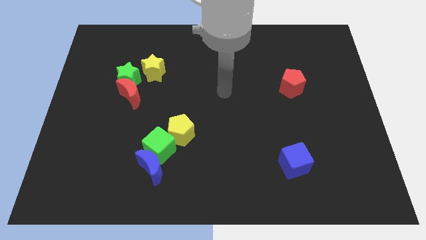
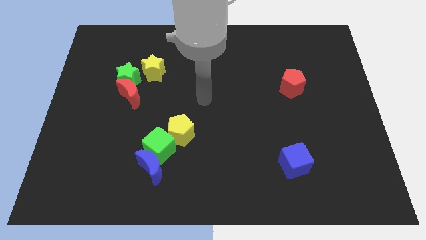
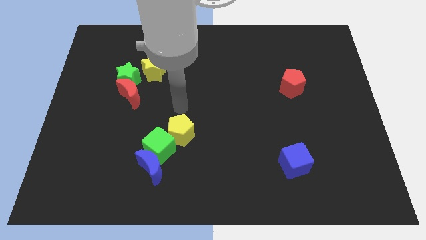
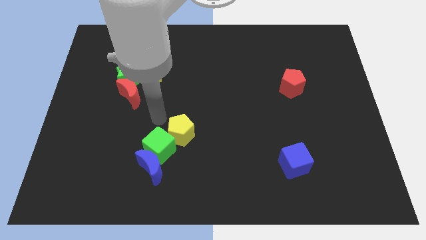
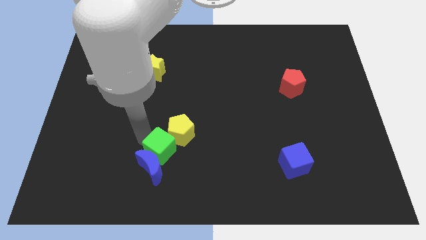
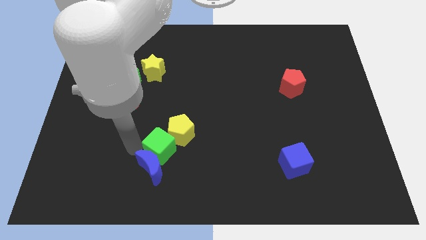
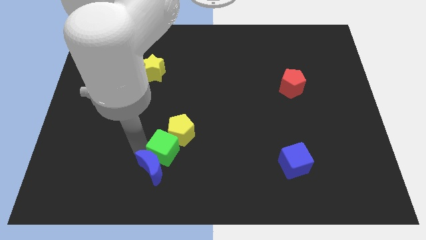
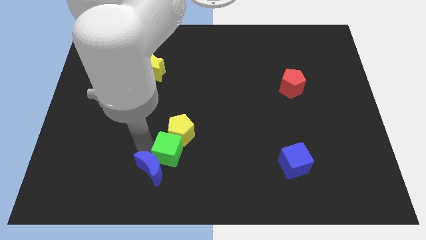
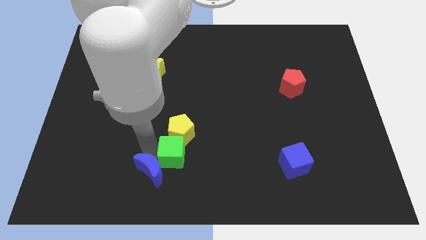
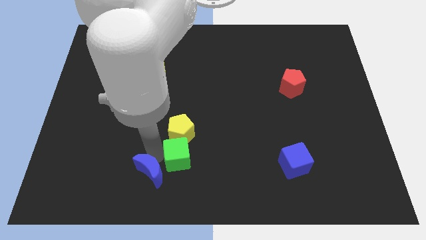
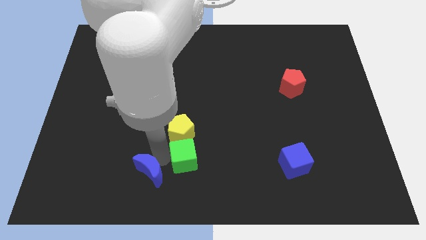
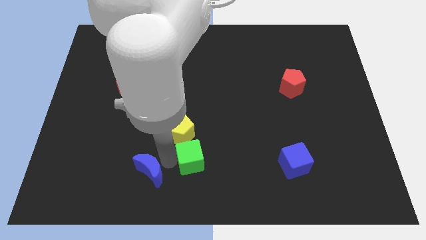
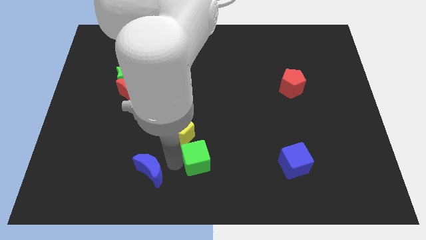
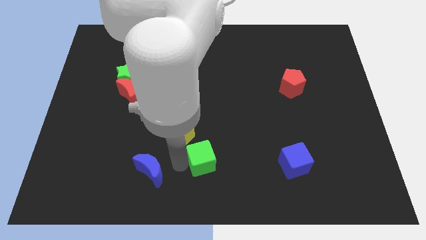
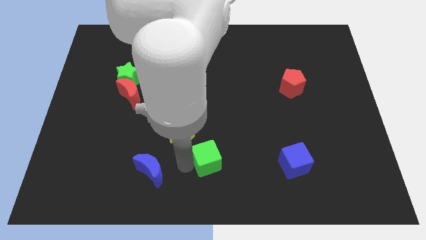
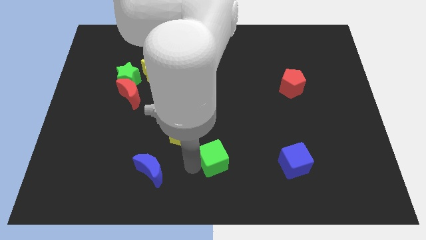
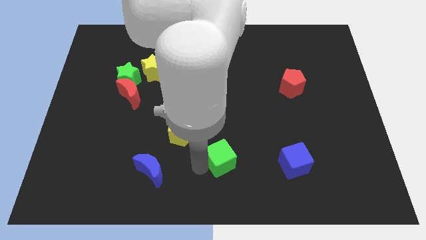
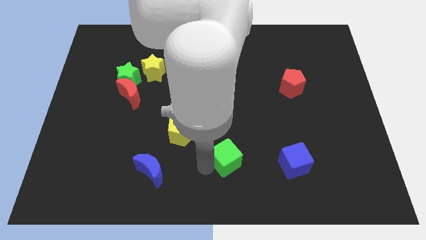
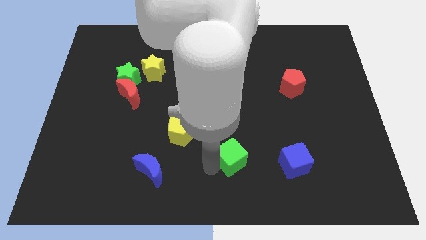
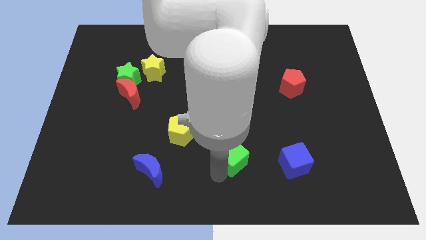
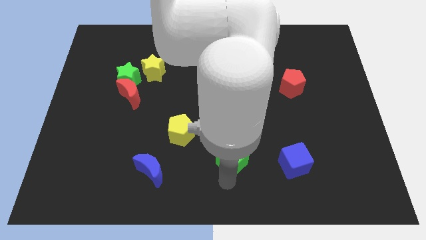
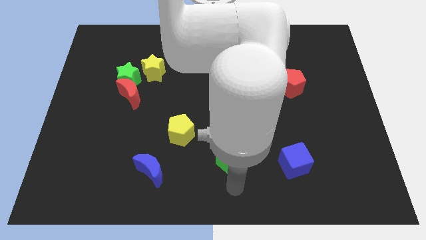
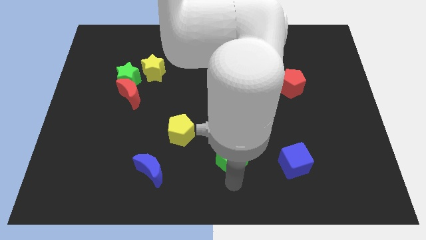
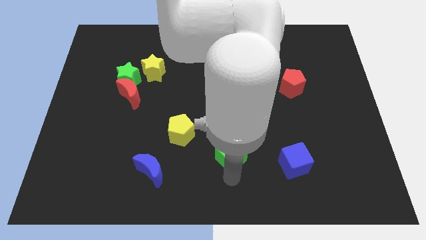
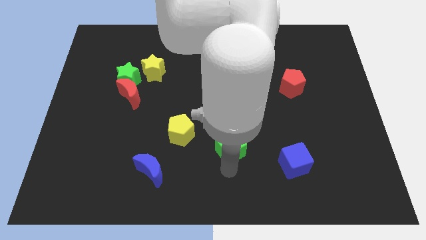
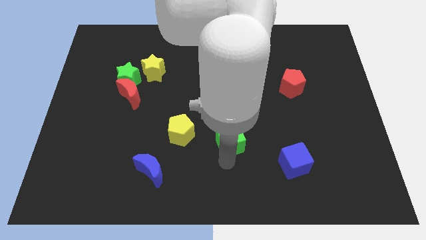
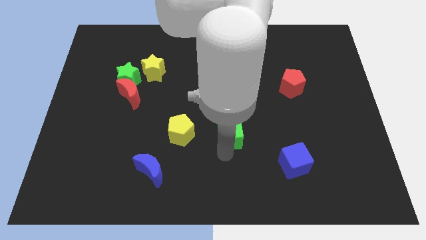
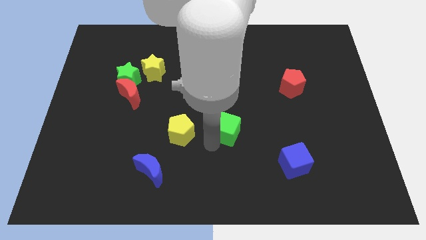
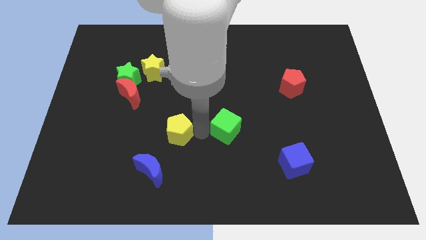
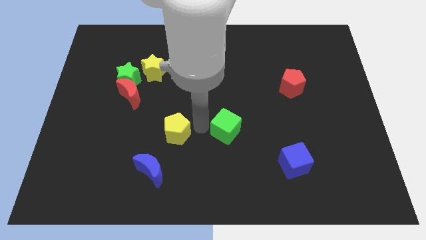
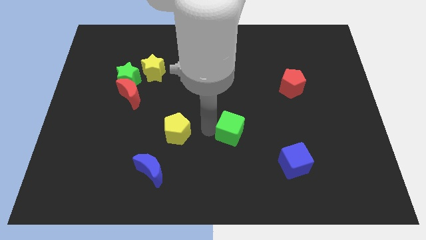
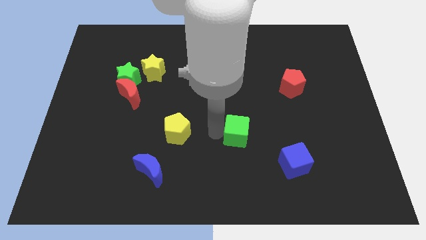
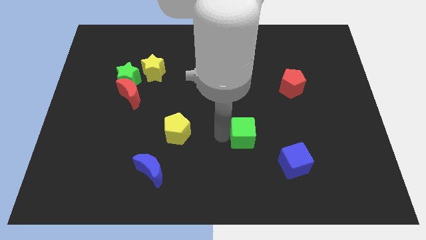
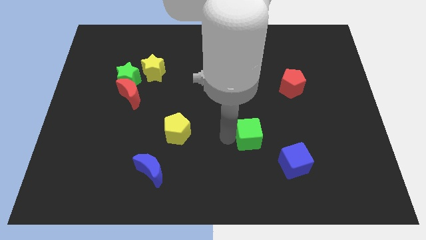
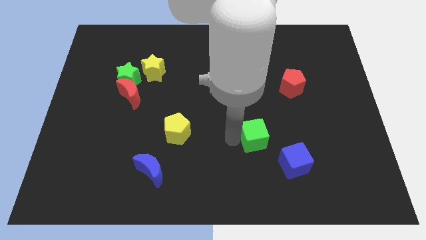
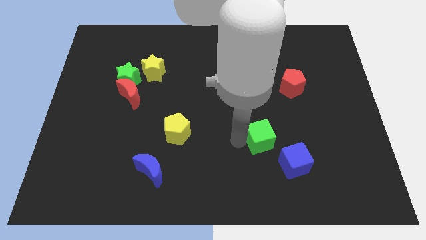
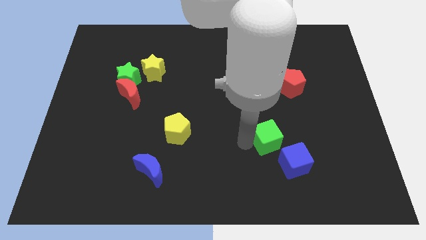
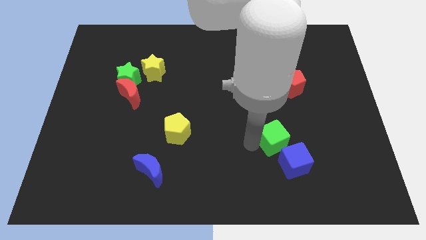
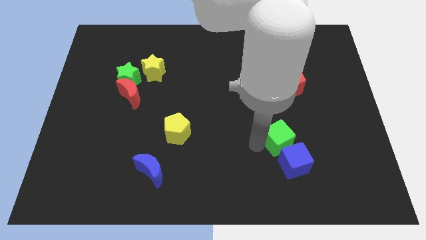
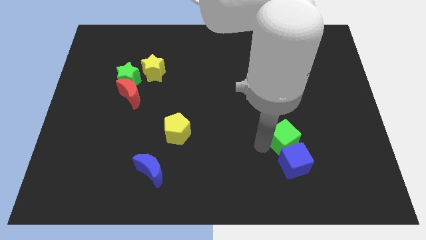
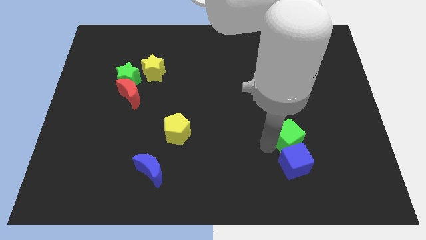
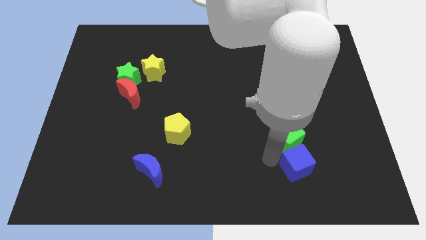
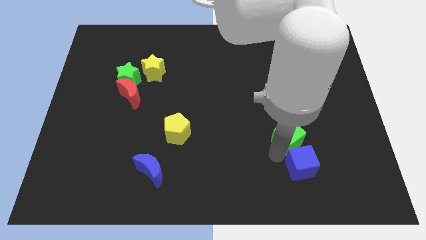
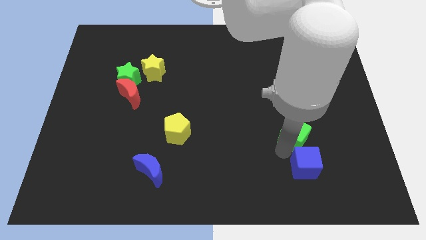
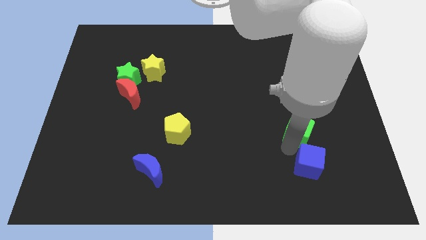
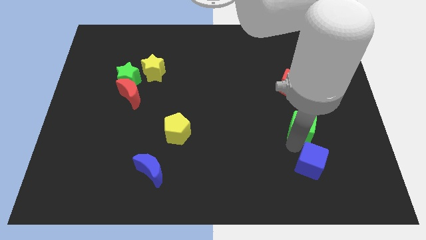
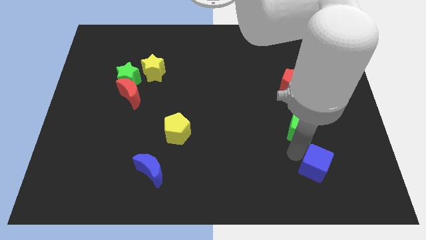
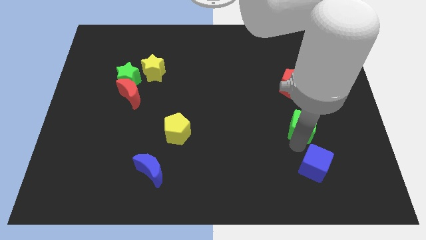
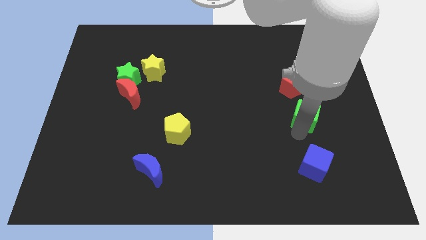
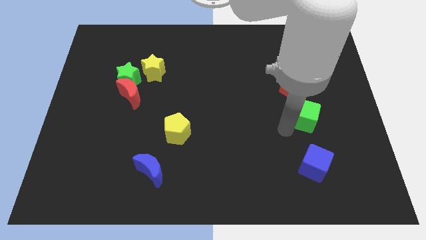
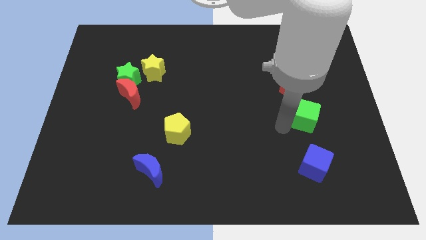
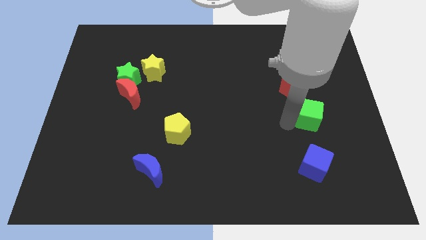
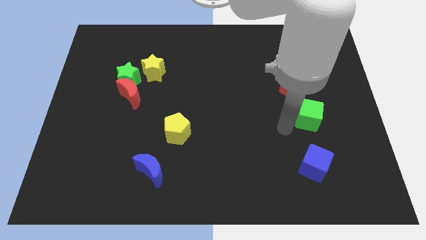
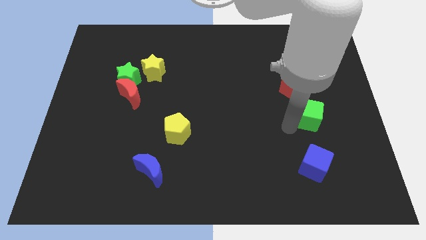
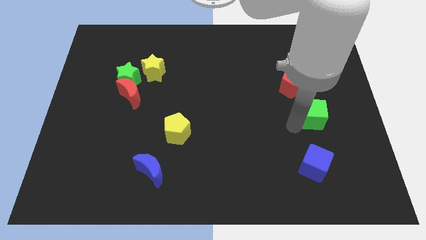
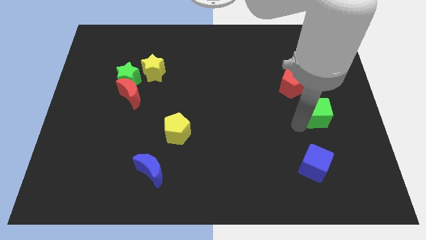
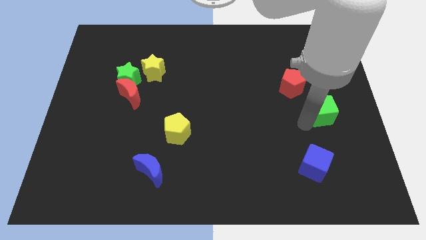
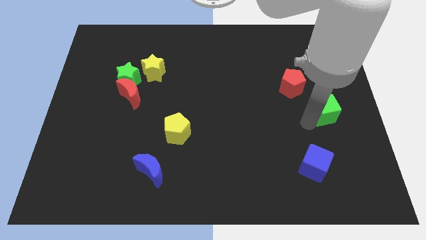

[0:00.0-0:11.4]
slide the green cube to the center right

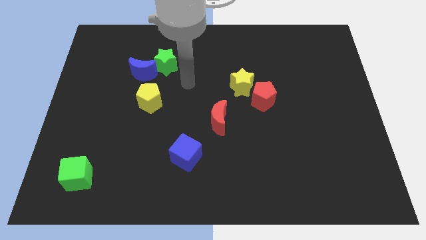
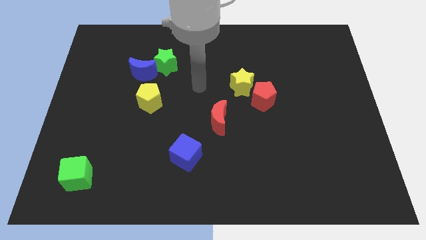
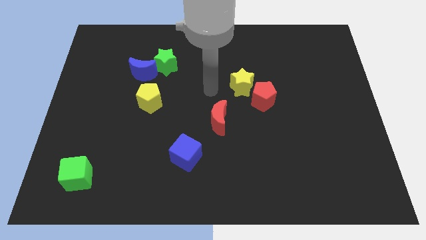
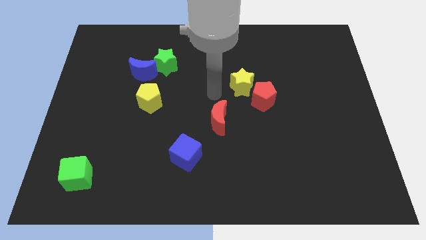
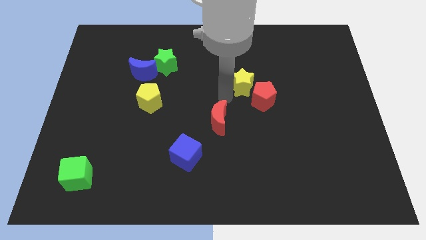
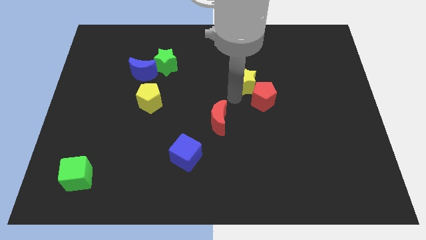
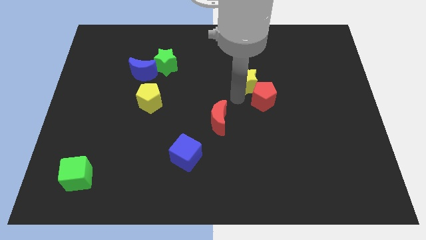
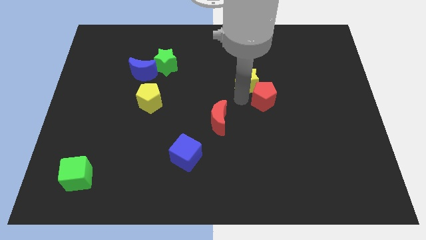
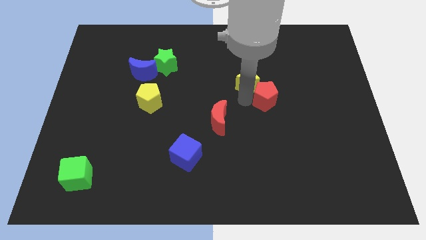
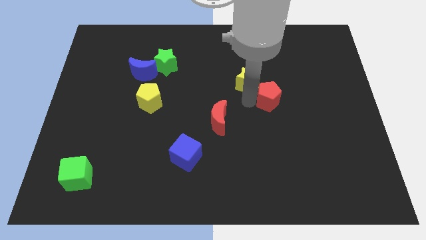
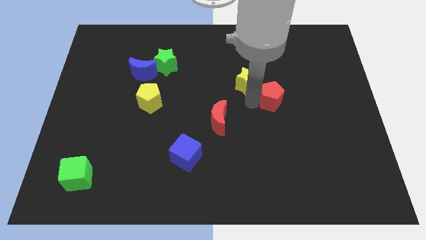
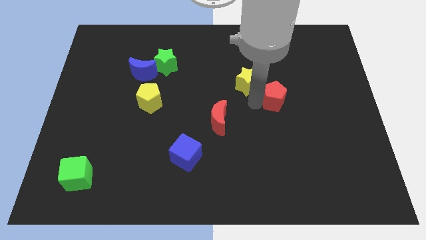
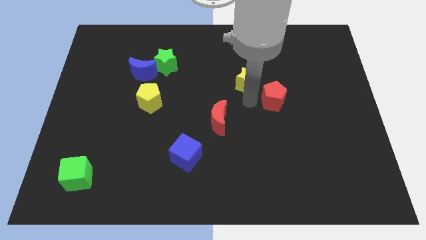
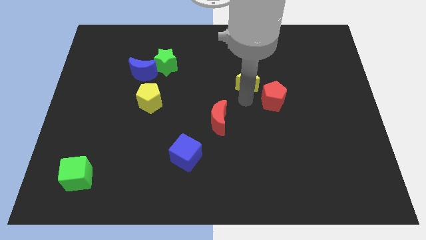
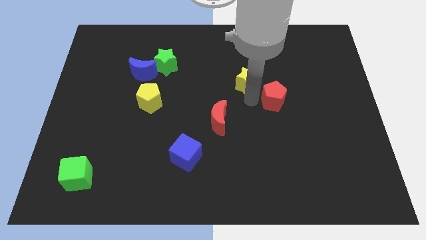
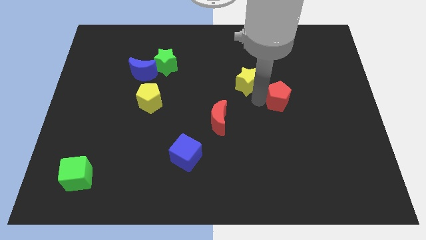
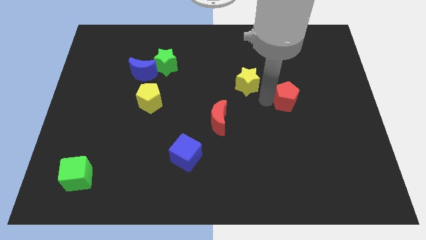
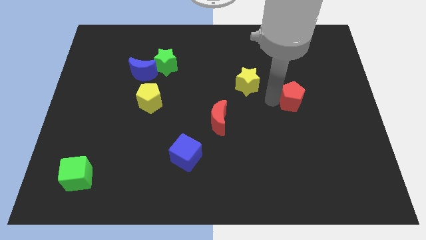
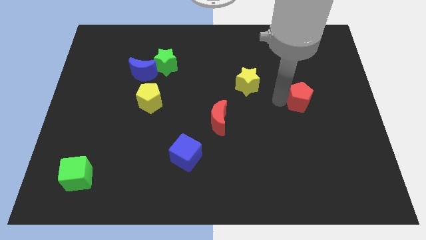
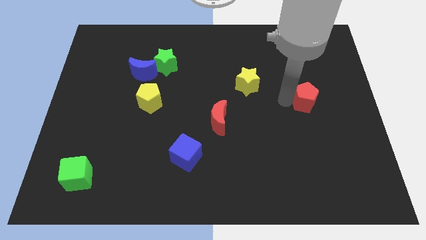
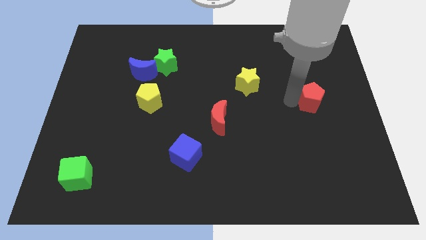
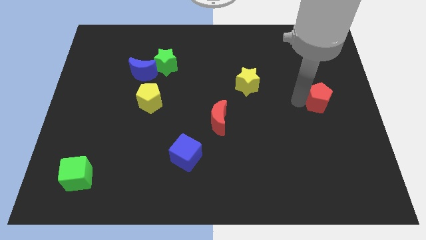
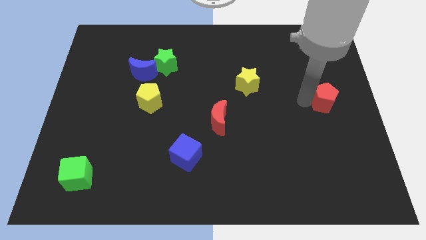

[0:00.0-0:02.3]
slide the red pentagon to the center right
